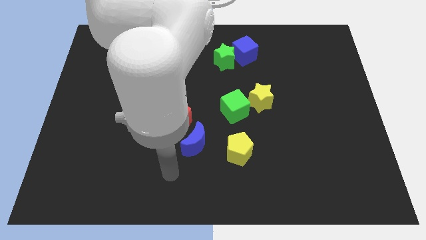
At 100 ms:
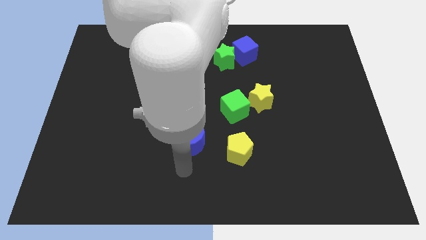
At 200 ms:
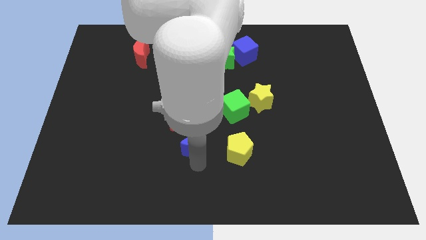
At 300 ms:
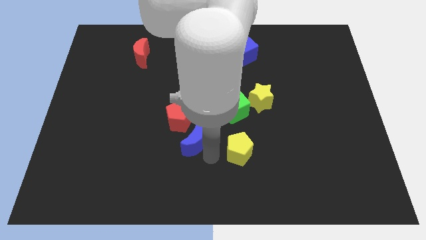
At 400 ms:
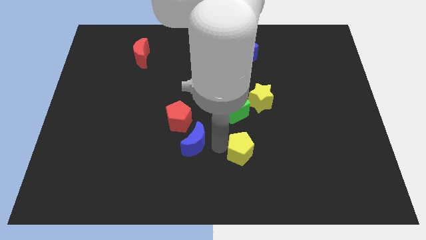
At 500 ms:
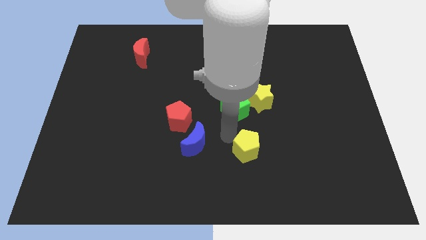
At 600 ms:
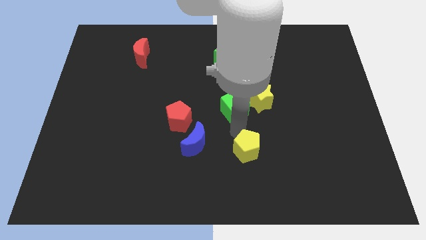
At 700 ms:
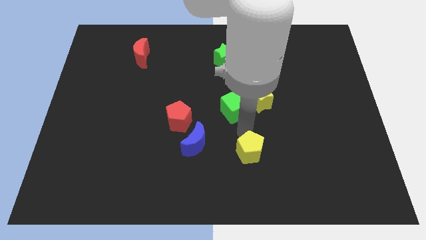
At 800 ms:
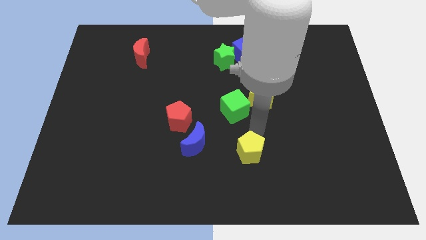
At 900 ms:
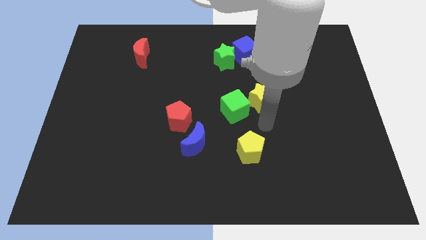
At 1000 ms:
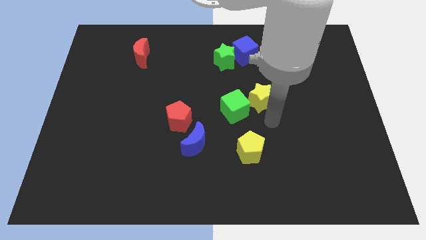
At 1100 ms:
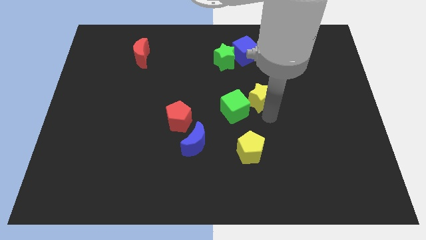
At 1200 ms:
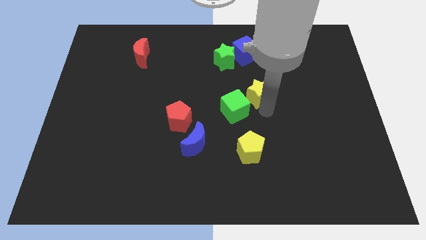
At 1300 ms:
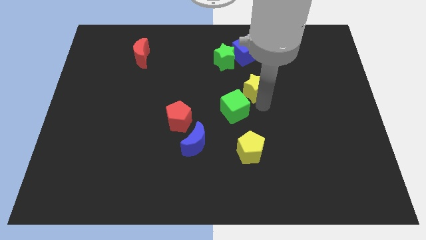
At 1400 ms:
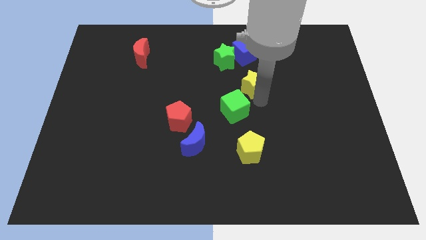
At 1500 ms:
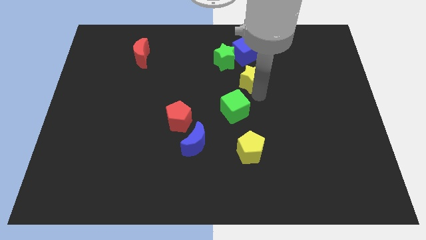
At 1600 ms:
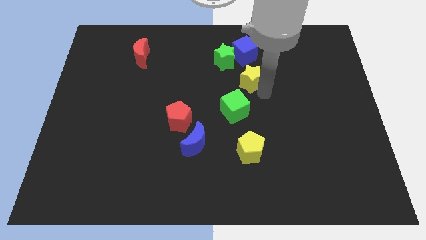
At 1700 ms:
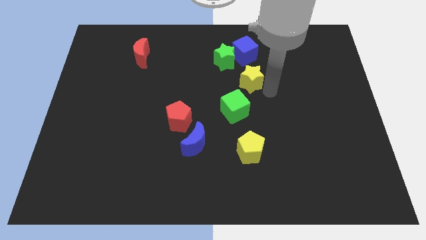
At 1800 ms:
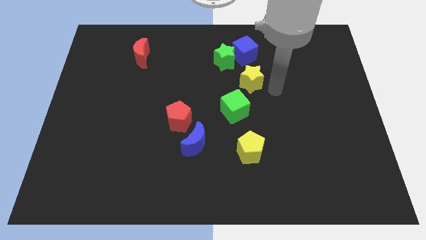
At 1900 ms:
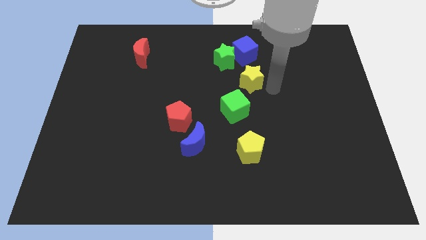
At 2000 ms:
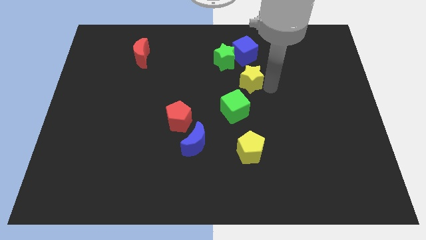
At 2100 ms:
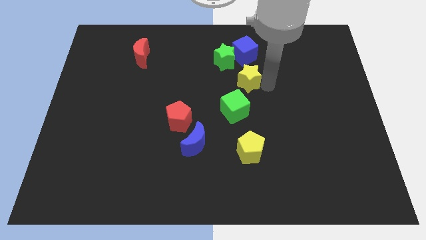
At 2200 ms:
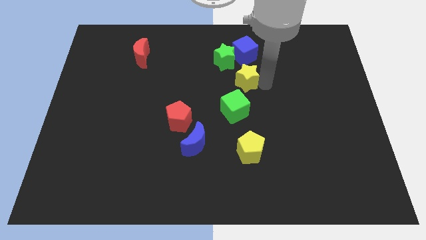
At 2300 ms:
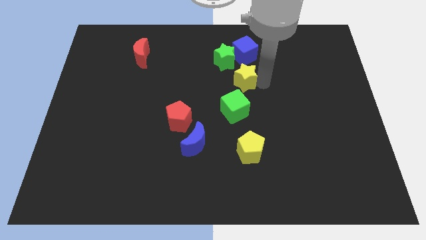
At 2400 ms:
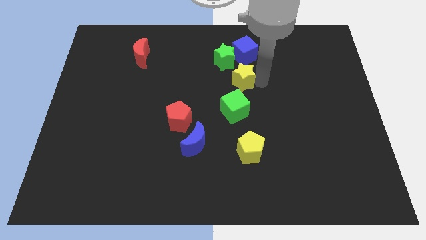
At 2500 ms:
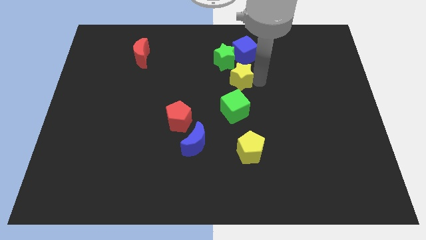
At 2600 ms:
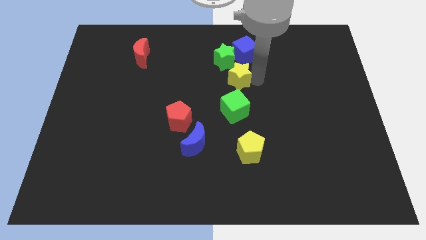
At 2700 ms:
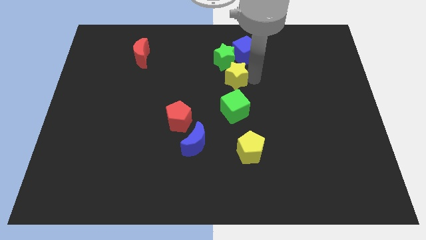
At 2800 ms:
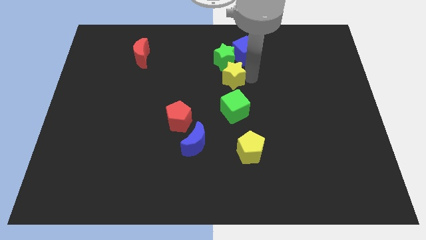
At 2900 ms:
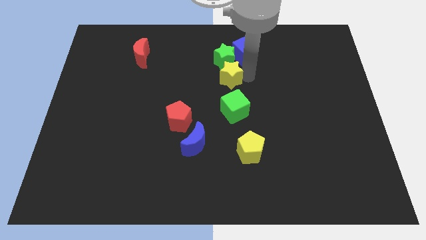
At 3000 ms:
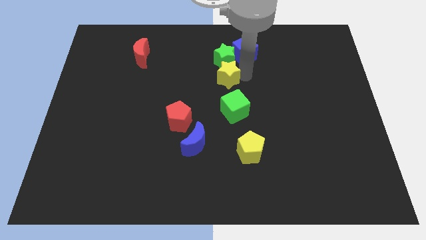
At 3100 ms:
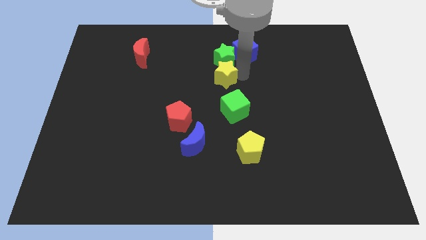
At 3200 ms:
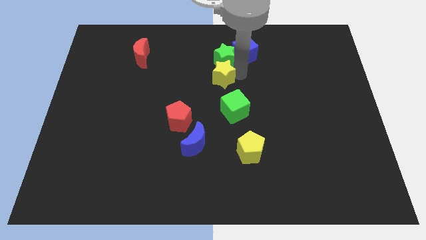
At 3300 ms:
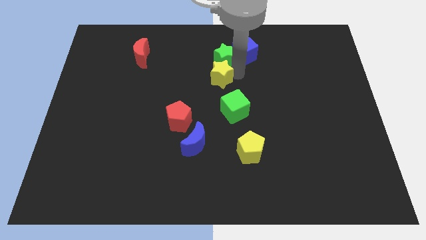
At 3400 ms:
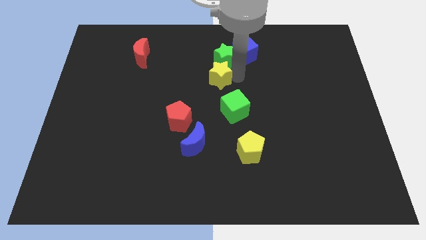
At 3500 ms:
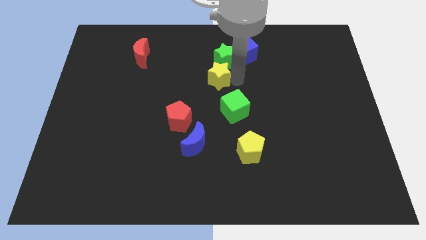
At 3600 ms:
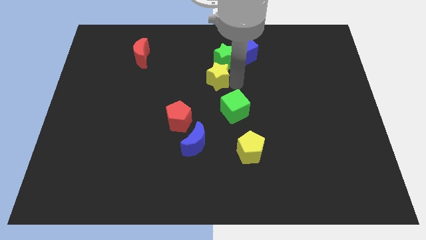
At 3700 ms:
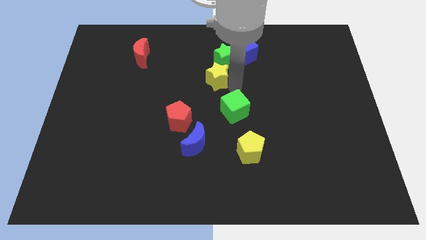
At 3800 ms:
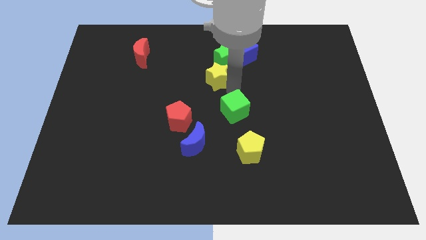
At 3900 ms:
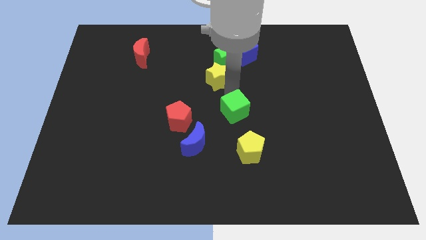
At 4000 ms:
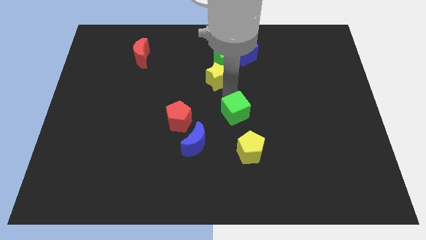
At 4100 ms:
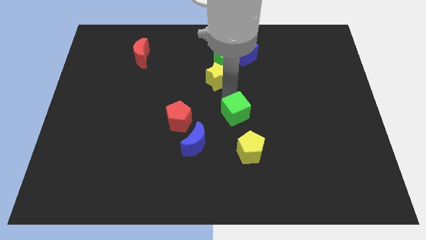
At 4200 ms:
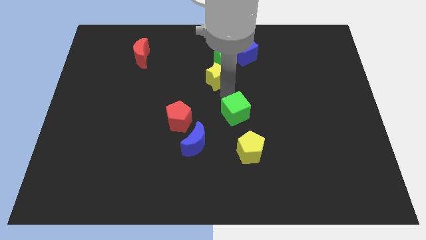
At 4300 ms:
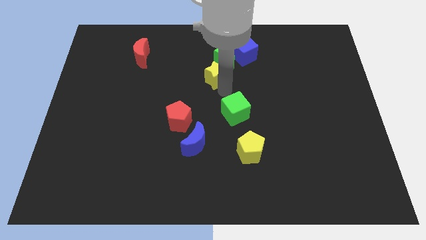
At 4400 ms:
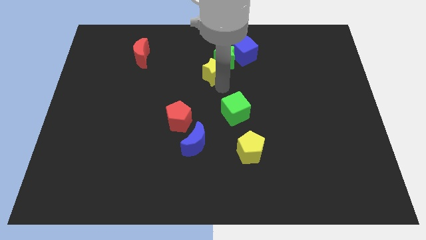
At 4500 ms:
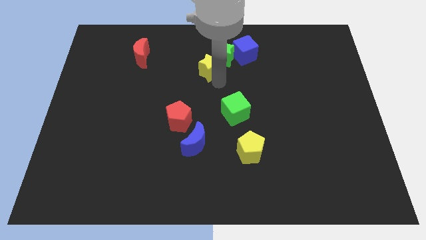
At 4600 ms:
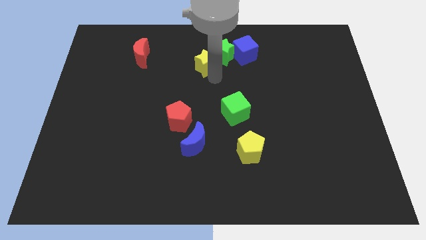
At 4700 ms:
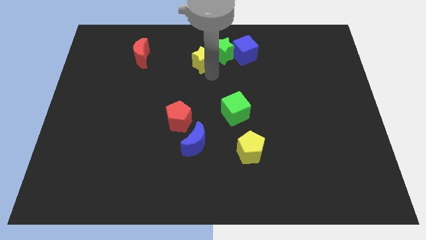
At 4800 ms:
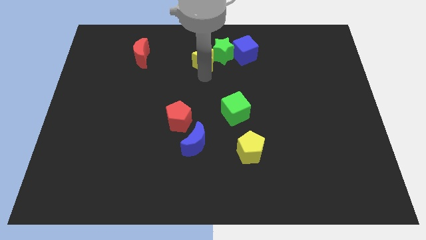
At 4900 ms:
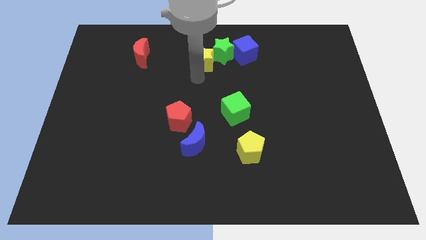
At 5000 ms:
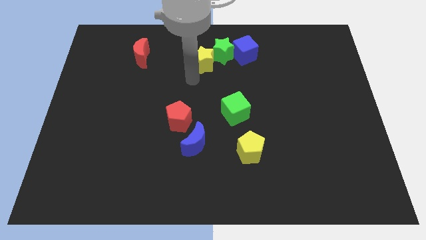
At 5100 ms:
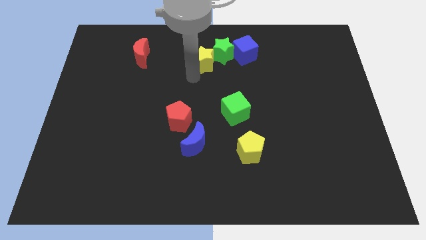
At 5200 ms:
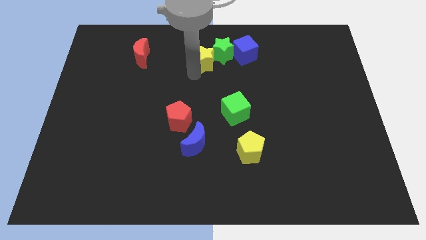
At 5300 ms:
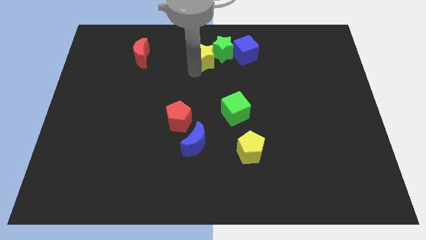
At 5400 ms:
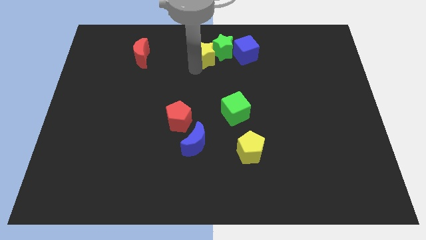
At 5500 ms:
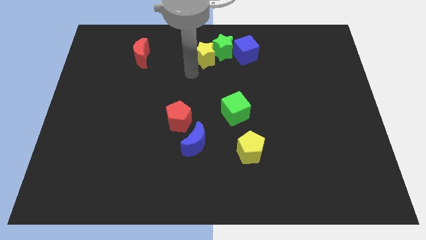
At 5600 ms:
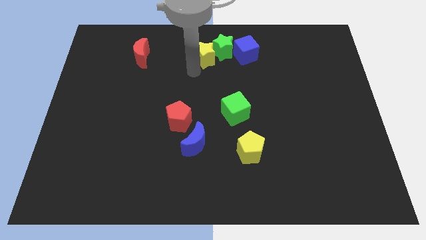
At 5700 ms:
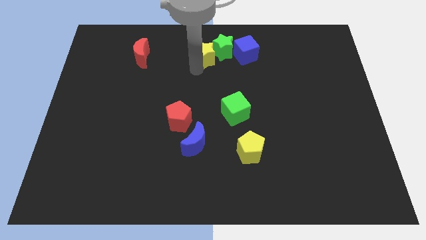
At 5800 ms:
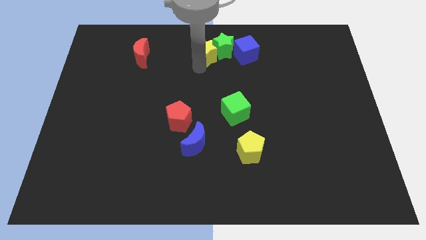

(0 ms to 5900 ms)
slide the yellow star to the top side

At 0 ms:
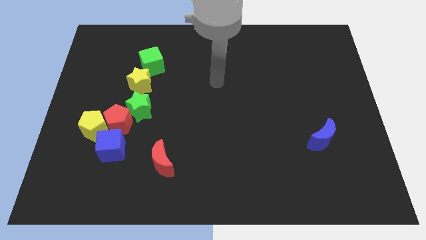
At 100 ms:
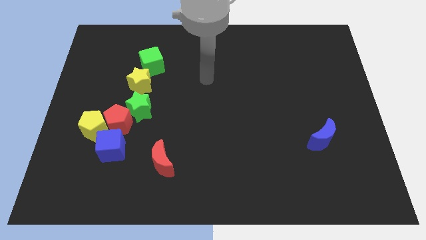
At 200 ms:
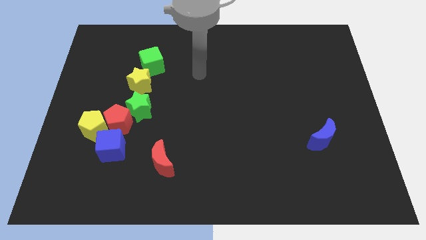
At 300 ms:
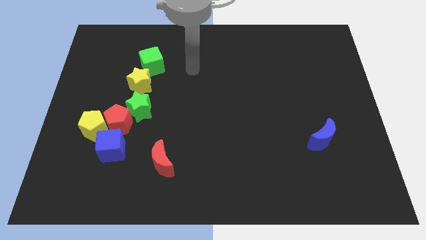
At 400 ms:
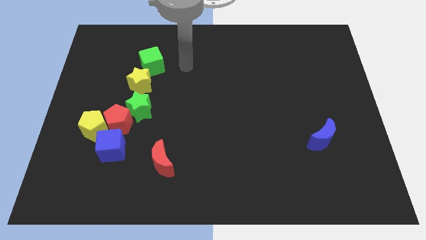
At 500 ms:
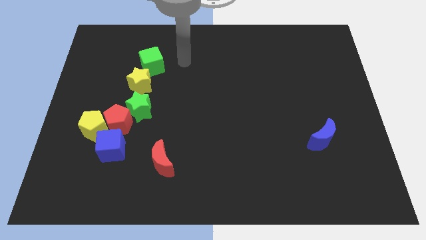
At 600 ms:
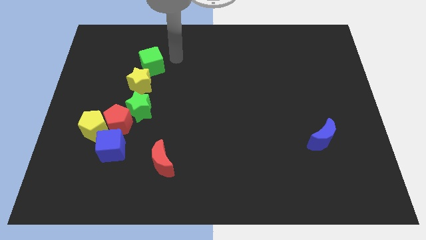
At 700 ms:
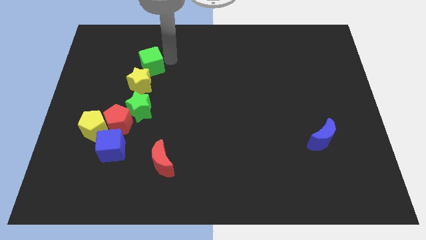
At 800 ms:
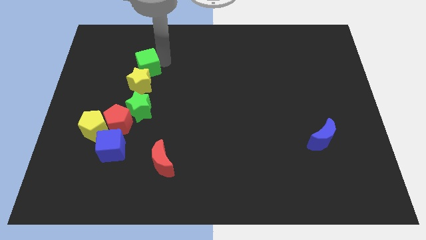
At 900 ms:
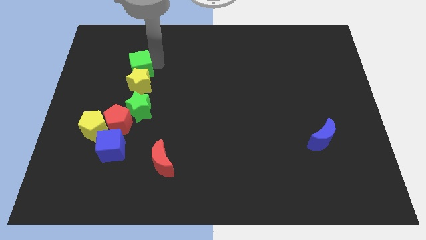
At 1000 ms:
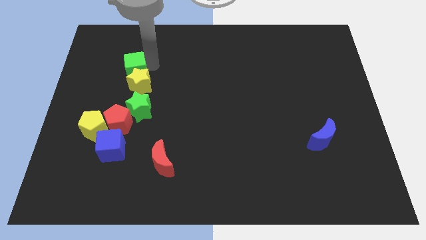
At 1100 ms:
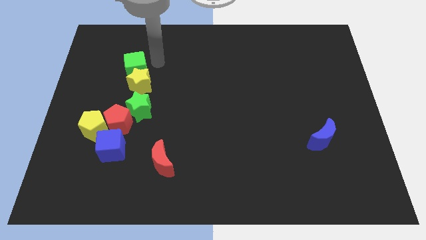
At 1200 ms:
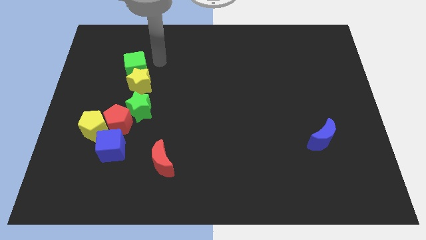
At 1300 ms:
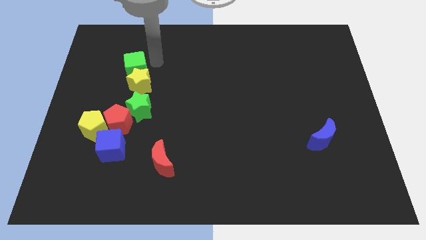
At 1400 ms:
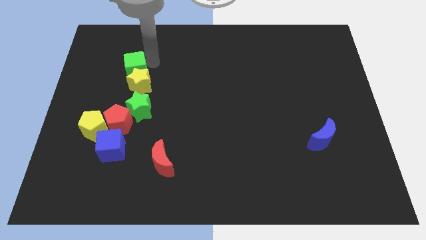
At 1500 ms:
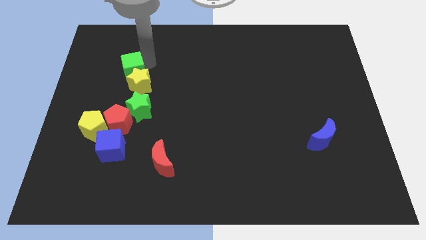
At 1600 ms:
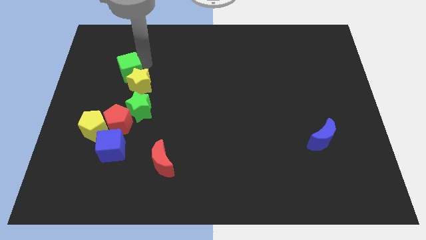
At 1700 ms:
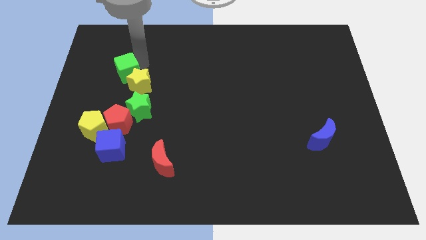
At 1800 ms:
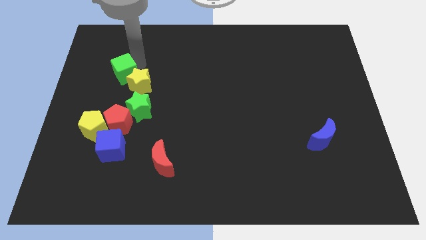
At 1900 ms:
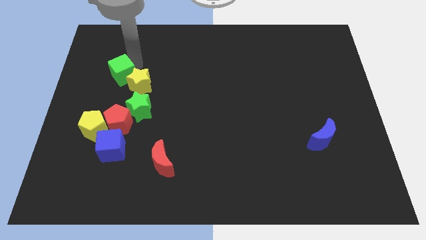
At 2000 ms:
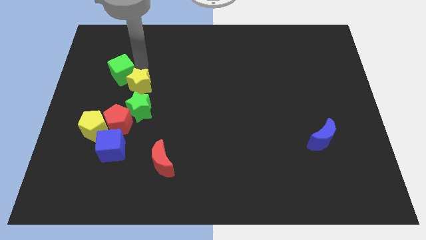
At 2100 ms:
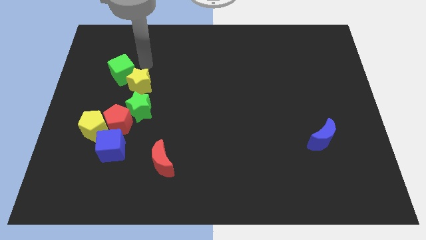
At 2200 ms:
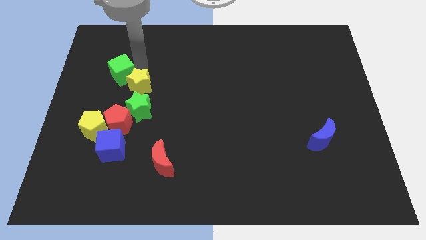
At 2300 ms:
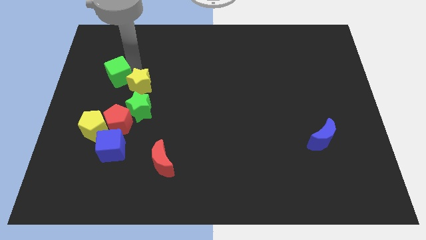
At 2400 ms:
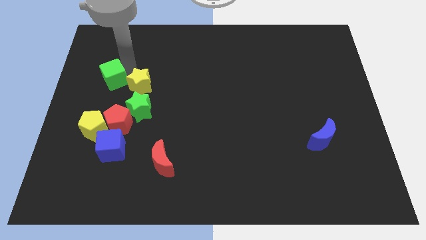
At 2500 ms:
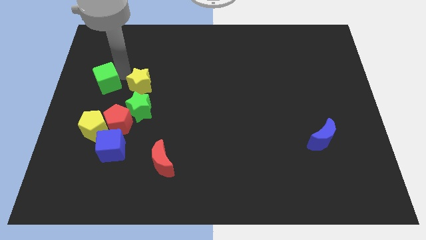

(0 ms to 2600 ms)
move the green cube to the left side
